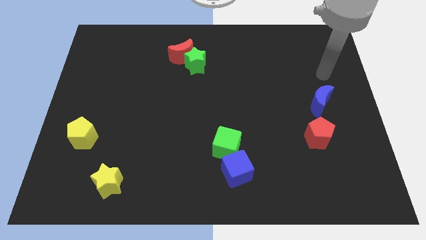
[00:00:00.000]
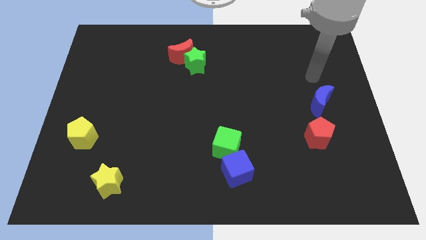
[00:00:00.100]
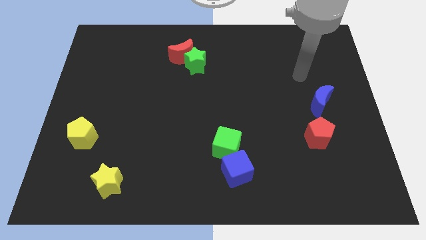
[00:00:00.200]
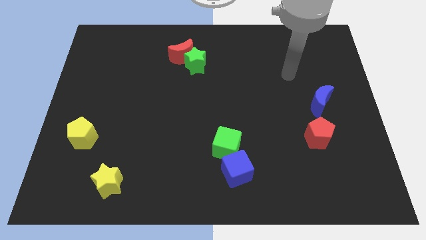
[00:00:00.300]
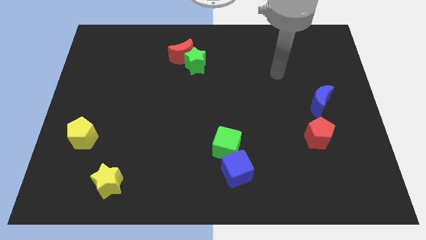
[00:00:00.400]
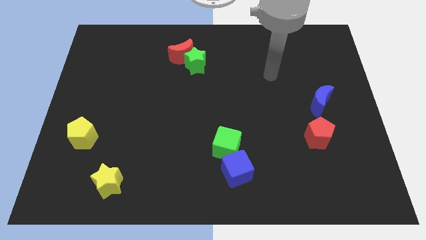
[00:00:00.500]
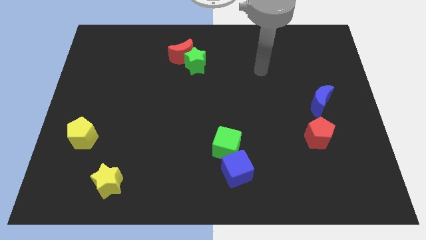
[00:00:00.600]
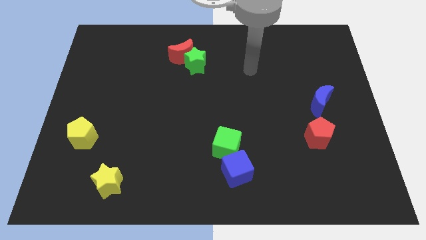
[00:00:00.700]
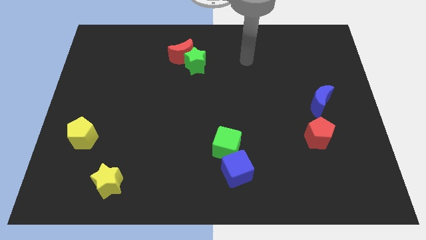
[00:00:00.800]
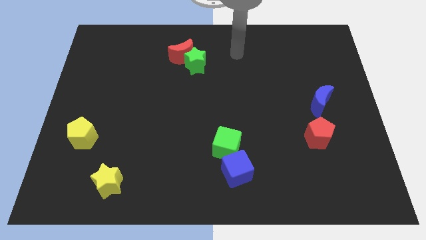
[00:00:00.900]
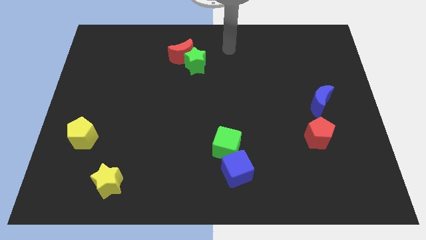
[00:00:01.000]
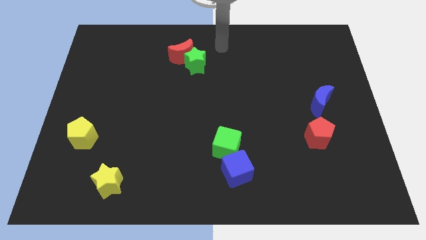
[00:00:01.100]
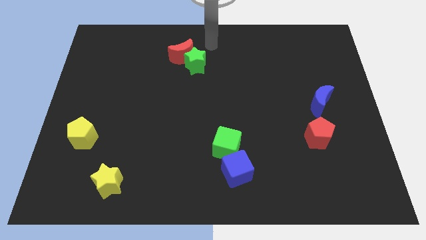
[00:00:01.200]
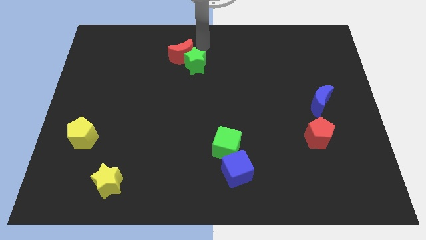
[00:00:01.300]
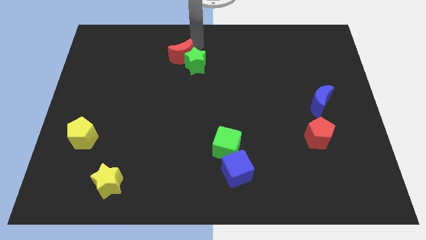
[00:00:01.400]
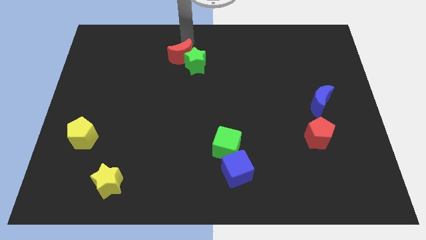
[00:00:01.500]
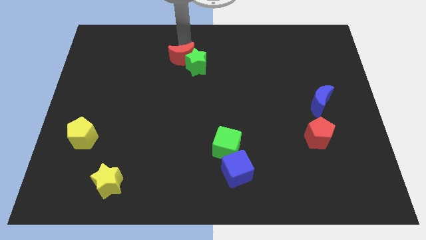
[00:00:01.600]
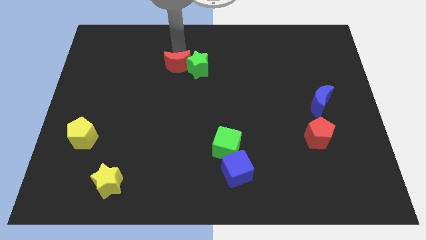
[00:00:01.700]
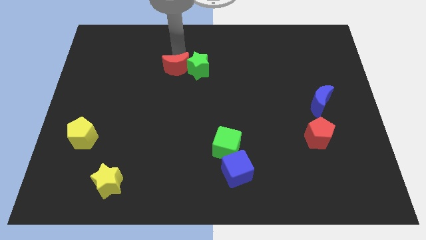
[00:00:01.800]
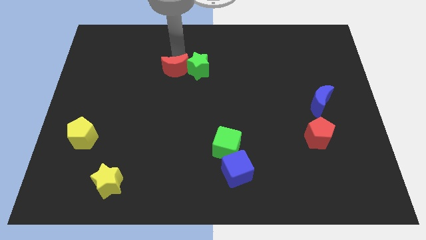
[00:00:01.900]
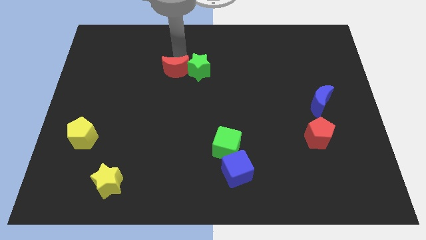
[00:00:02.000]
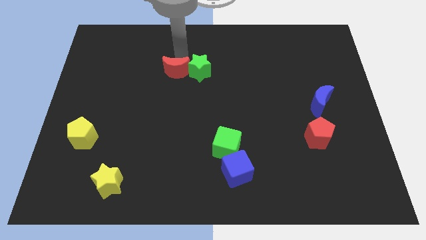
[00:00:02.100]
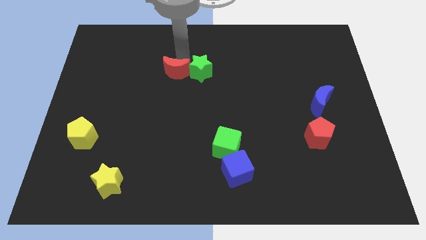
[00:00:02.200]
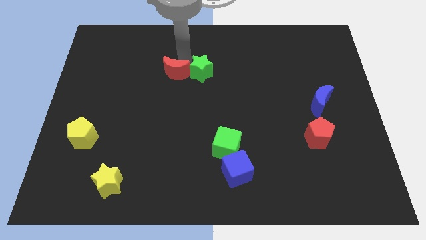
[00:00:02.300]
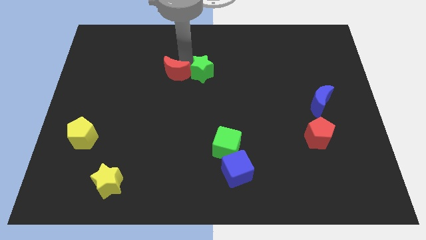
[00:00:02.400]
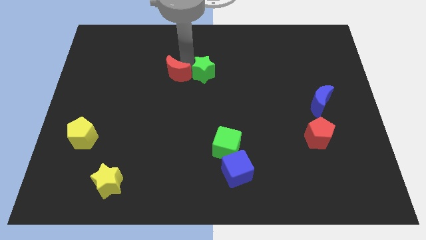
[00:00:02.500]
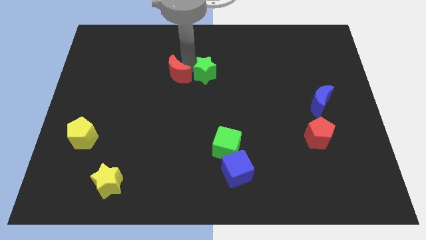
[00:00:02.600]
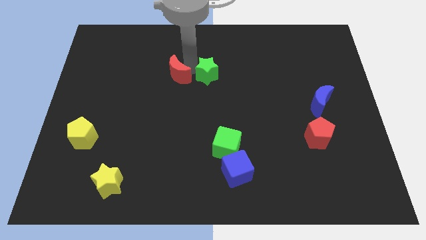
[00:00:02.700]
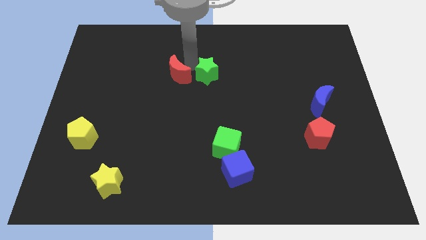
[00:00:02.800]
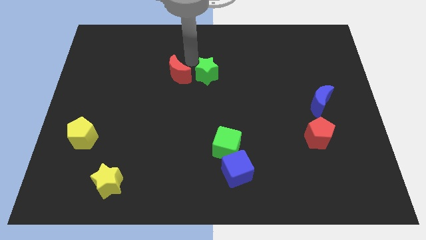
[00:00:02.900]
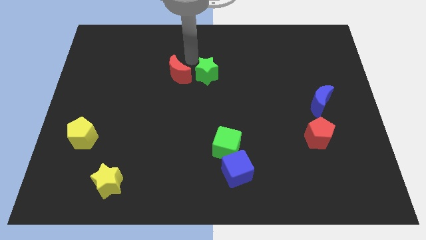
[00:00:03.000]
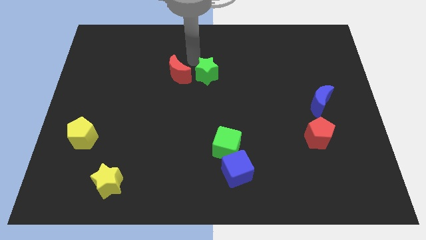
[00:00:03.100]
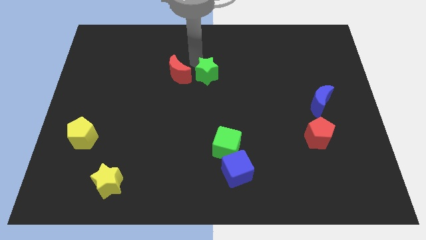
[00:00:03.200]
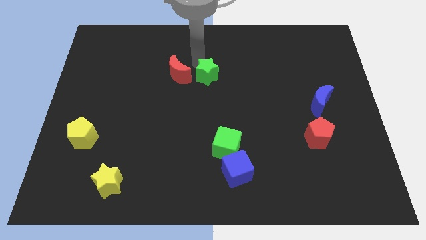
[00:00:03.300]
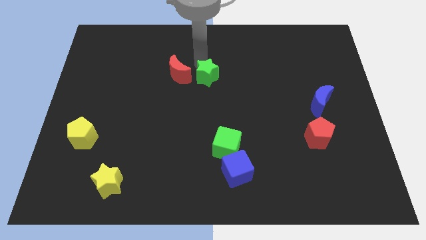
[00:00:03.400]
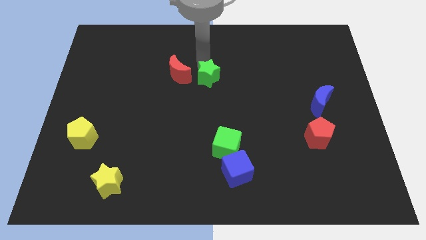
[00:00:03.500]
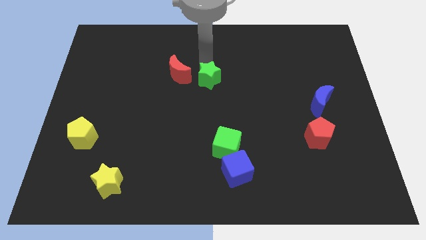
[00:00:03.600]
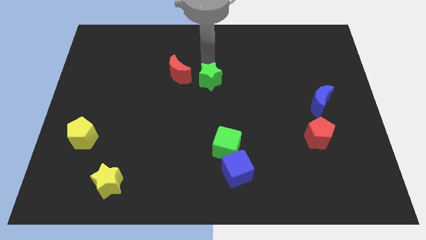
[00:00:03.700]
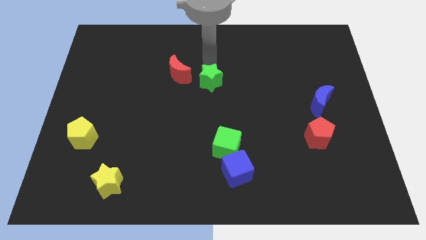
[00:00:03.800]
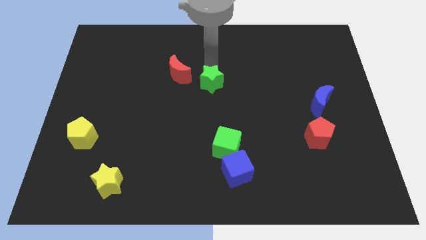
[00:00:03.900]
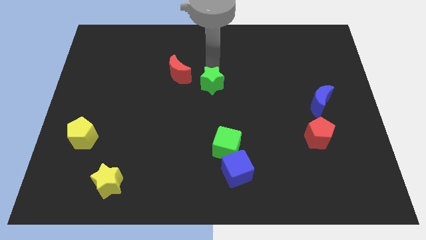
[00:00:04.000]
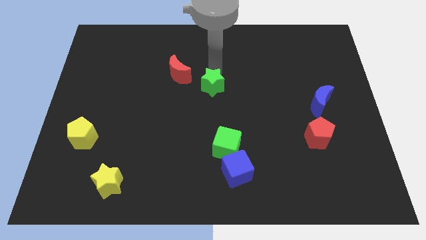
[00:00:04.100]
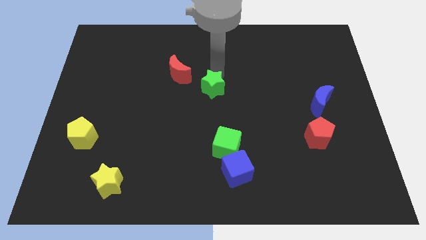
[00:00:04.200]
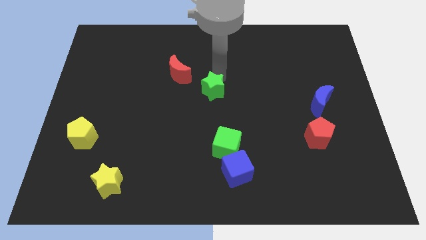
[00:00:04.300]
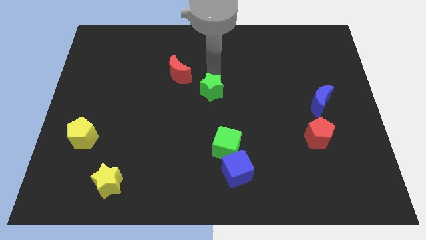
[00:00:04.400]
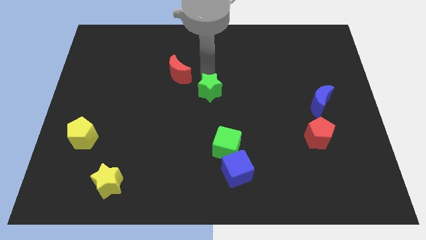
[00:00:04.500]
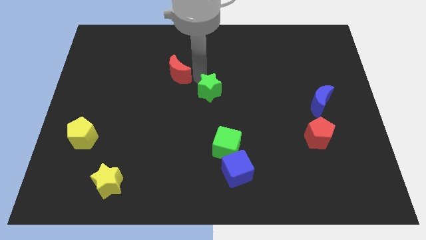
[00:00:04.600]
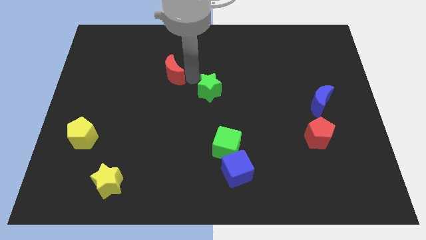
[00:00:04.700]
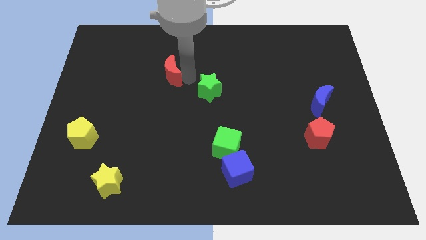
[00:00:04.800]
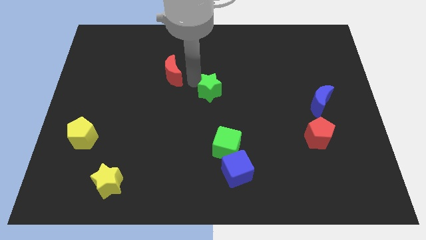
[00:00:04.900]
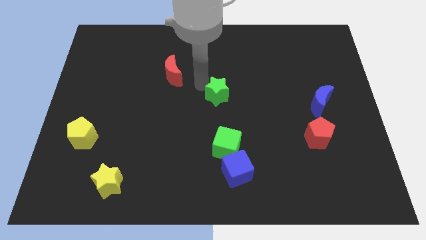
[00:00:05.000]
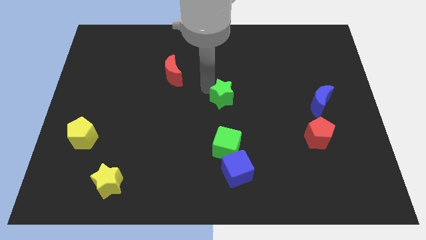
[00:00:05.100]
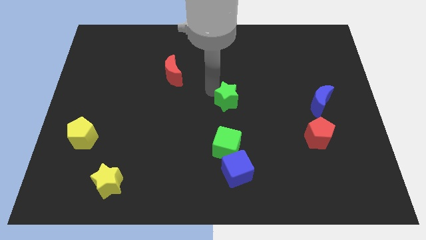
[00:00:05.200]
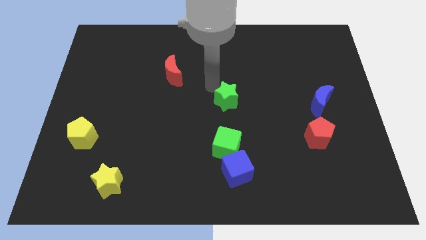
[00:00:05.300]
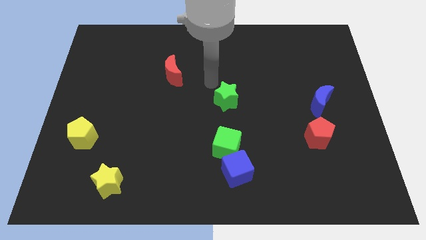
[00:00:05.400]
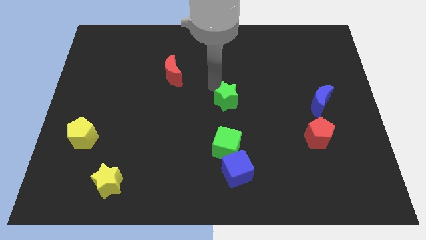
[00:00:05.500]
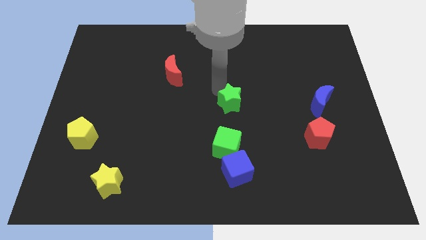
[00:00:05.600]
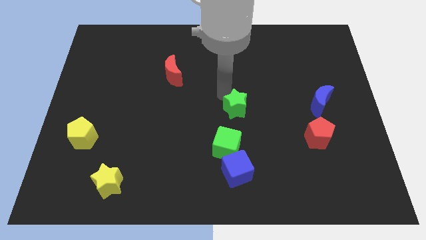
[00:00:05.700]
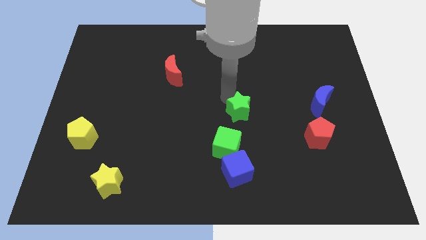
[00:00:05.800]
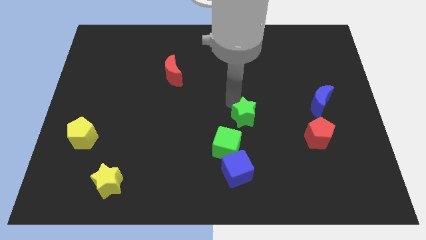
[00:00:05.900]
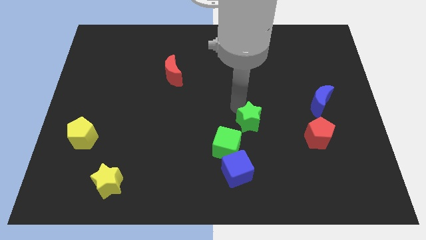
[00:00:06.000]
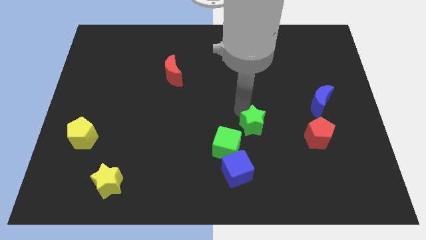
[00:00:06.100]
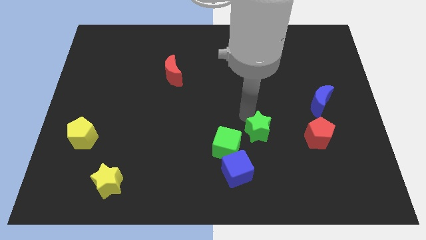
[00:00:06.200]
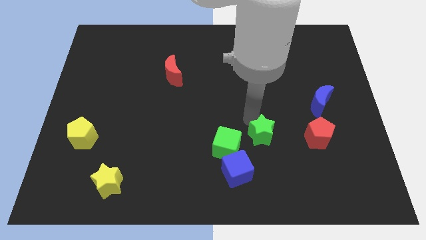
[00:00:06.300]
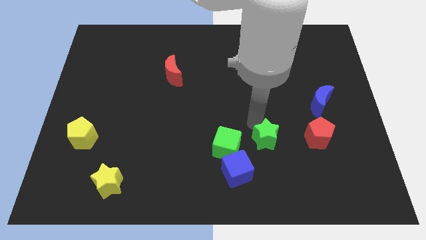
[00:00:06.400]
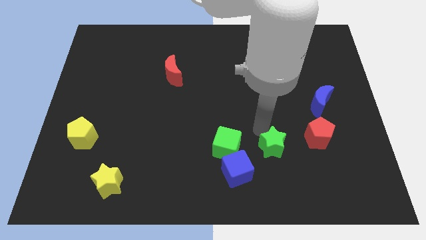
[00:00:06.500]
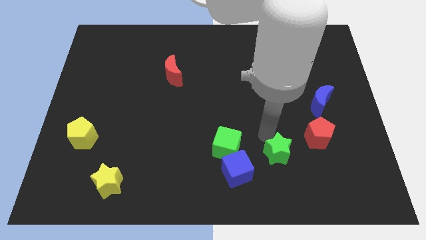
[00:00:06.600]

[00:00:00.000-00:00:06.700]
slide the green star just right of the blue cube
